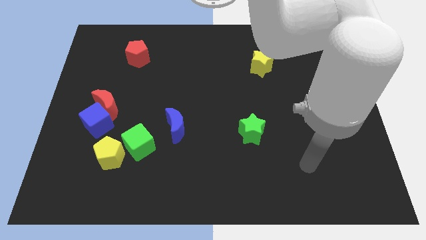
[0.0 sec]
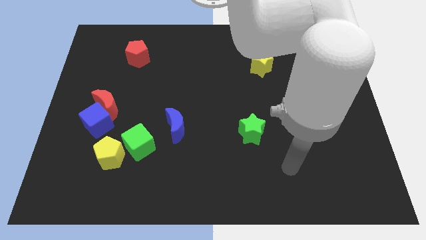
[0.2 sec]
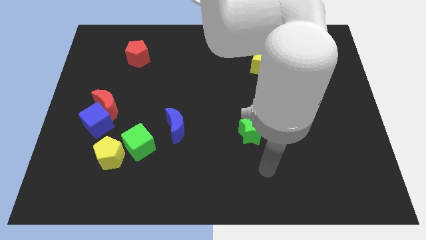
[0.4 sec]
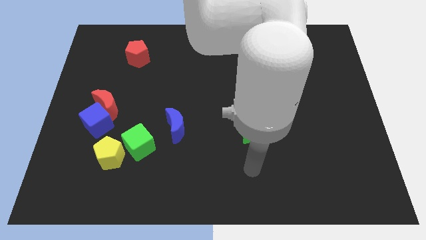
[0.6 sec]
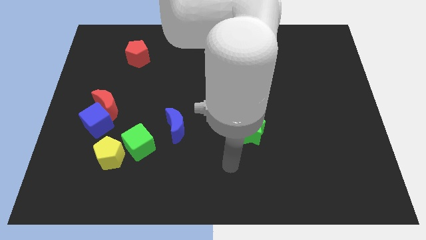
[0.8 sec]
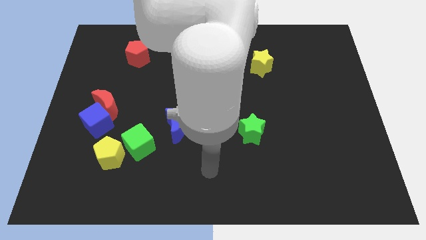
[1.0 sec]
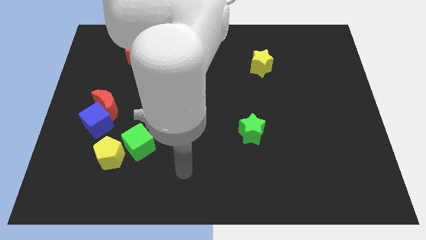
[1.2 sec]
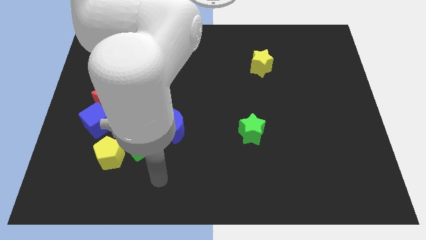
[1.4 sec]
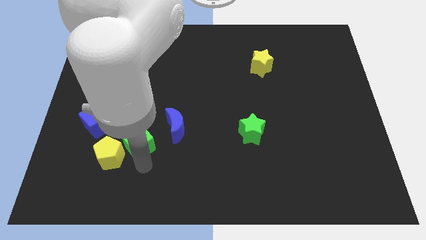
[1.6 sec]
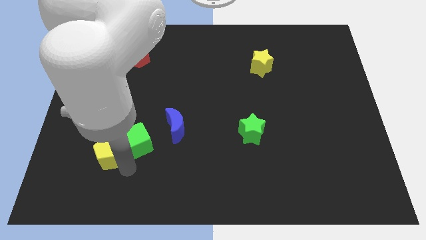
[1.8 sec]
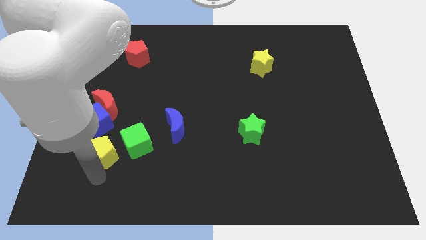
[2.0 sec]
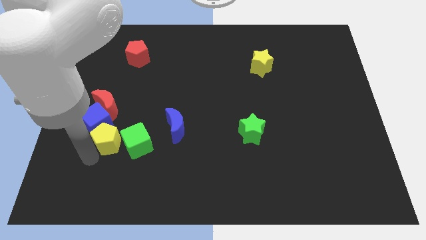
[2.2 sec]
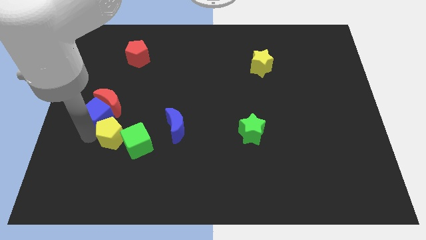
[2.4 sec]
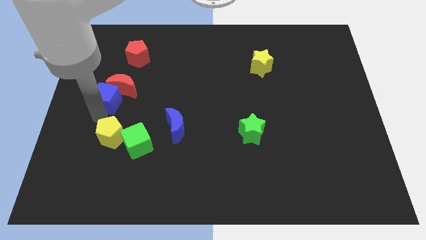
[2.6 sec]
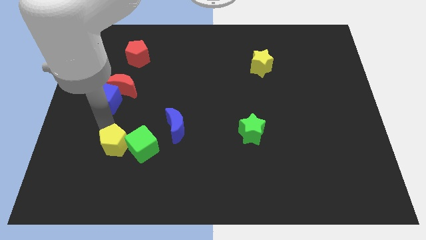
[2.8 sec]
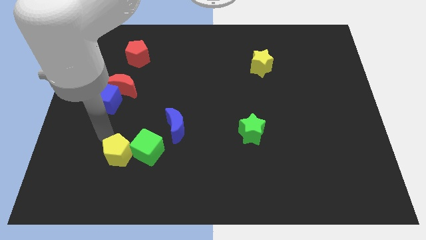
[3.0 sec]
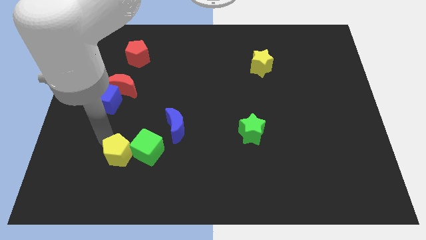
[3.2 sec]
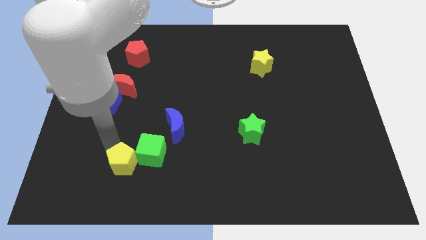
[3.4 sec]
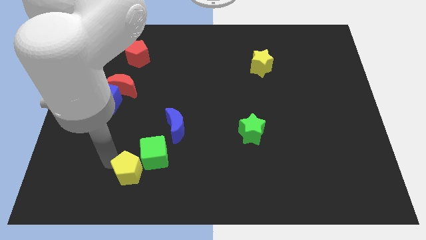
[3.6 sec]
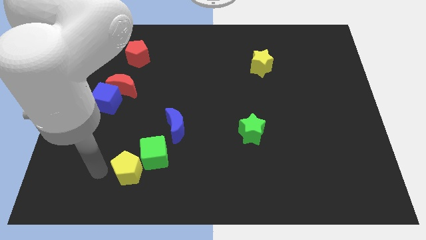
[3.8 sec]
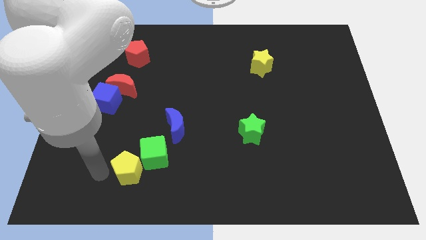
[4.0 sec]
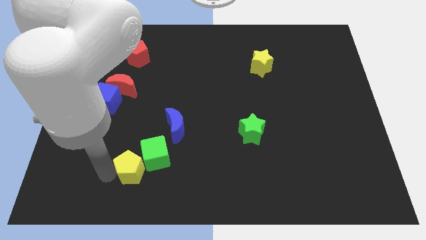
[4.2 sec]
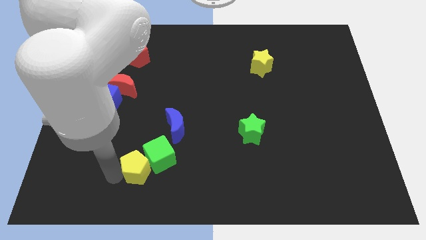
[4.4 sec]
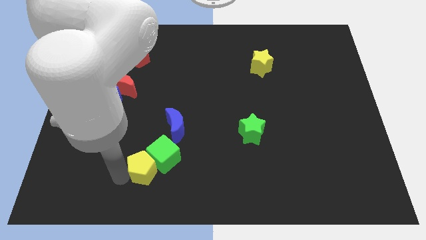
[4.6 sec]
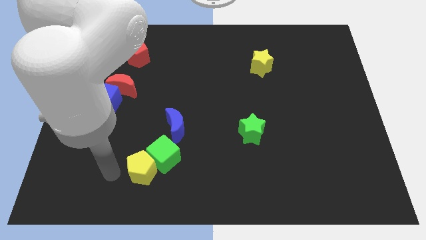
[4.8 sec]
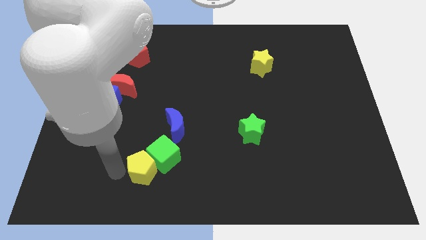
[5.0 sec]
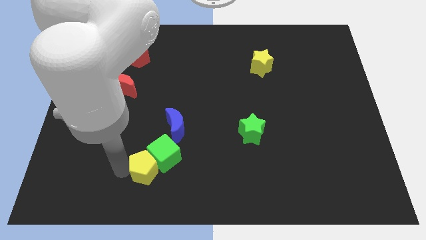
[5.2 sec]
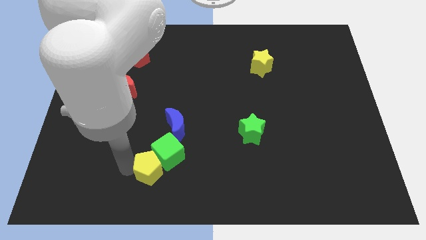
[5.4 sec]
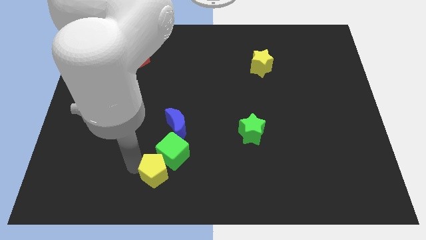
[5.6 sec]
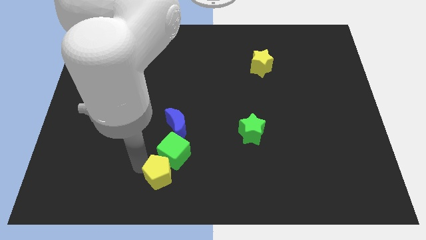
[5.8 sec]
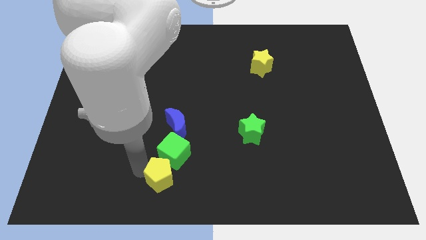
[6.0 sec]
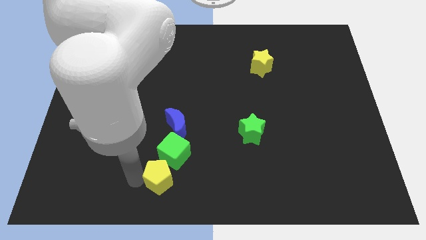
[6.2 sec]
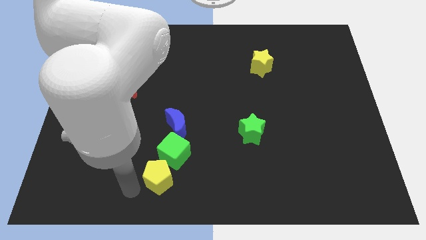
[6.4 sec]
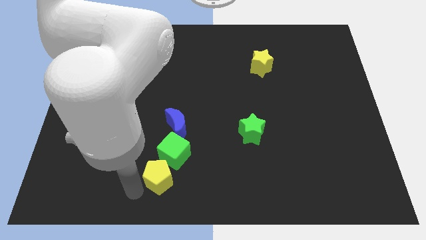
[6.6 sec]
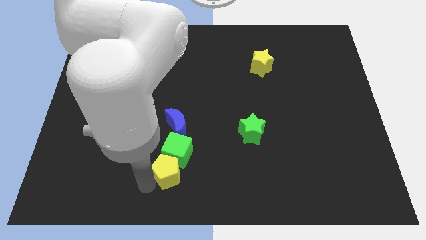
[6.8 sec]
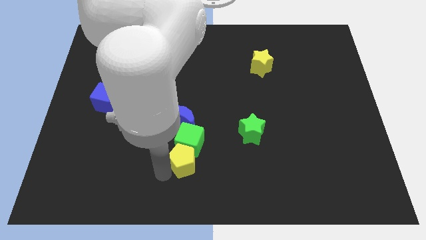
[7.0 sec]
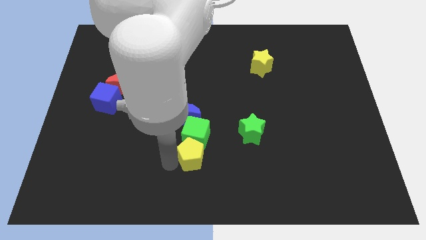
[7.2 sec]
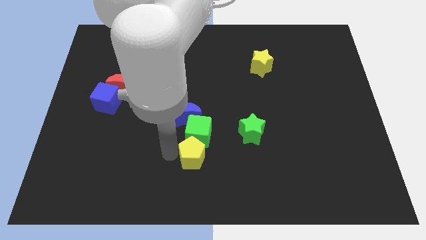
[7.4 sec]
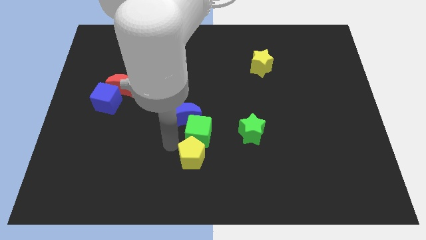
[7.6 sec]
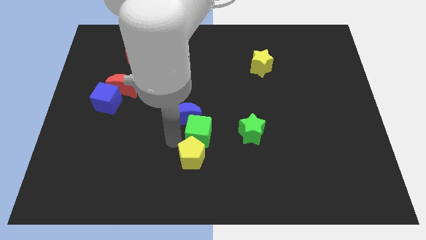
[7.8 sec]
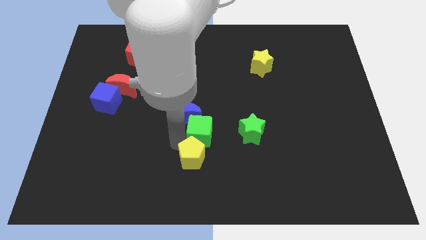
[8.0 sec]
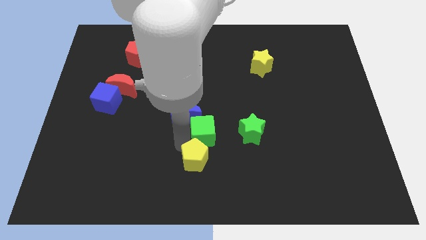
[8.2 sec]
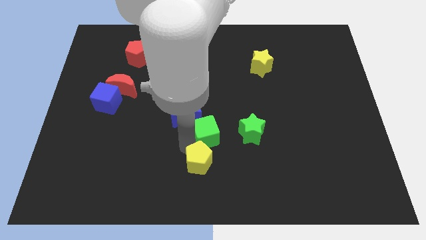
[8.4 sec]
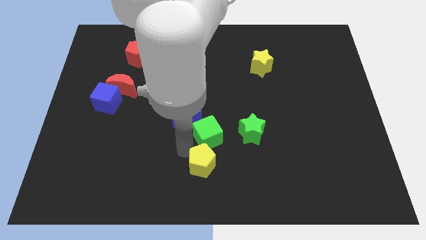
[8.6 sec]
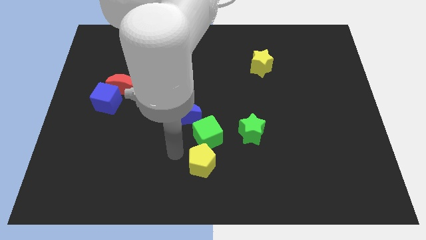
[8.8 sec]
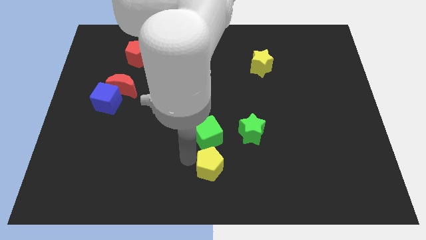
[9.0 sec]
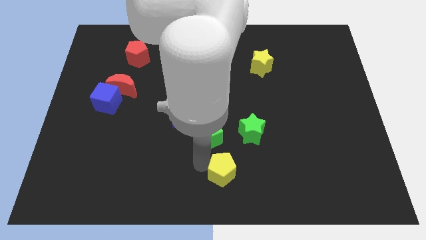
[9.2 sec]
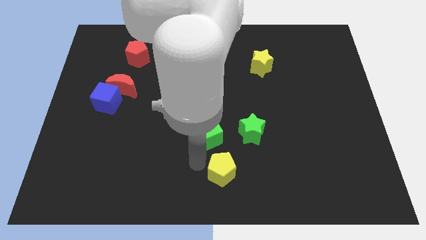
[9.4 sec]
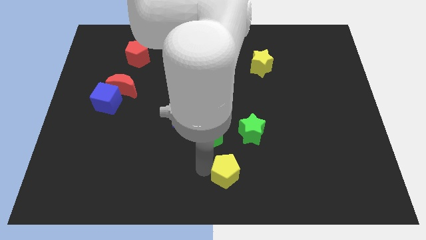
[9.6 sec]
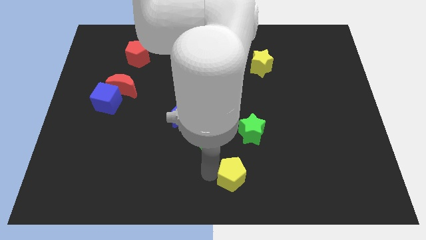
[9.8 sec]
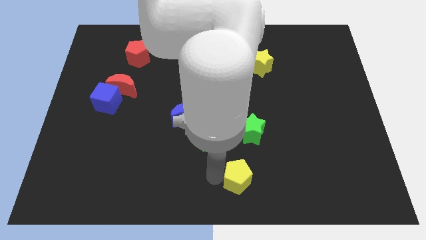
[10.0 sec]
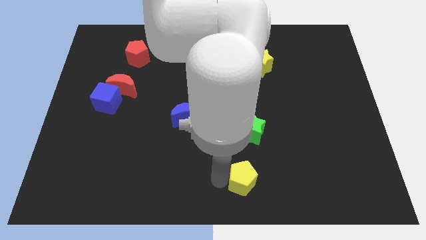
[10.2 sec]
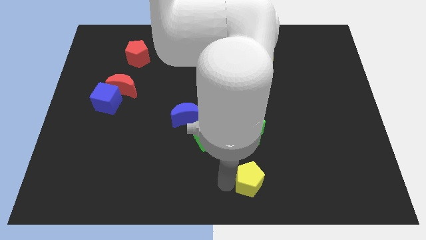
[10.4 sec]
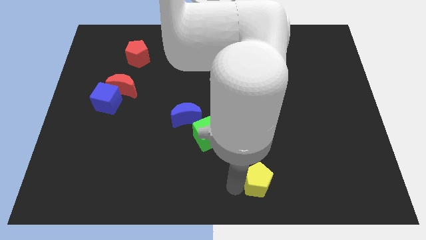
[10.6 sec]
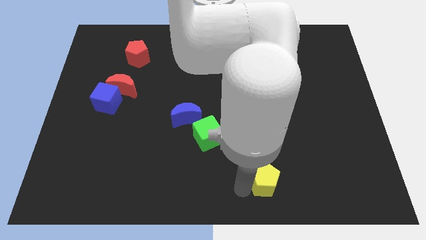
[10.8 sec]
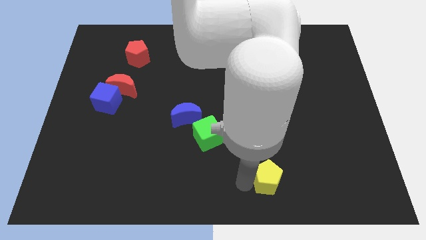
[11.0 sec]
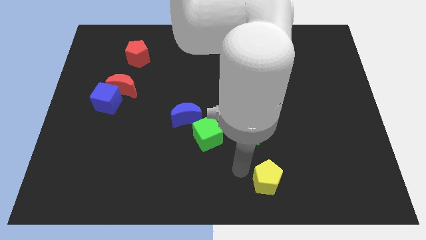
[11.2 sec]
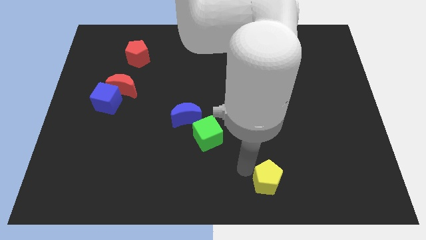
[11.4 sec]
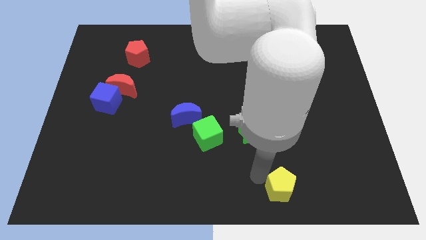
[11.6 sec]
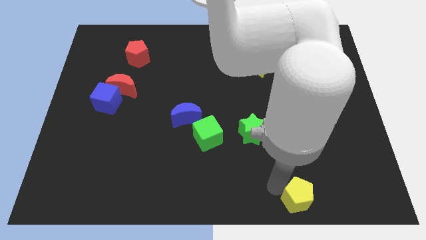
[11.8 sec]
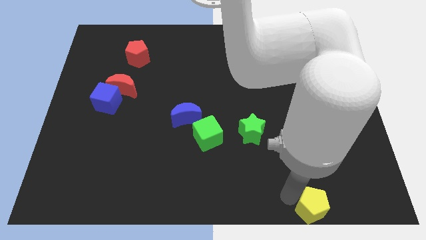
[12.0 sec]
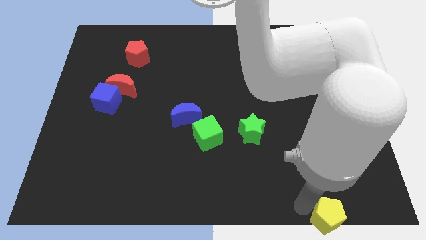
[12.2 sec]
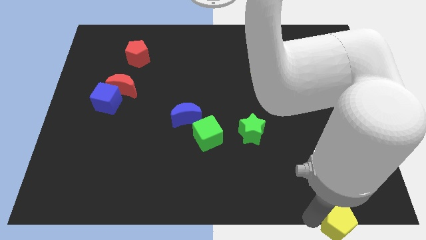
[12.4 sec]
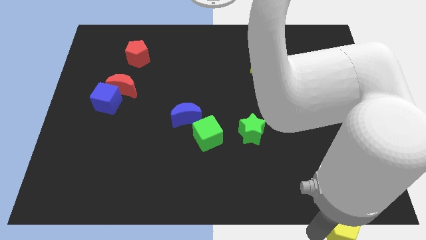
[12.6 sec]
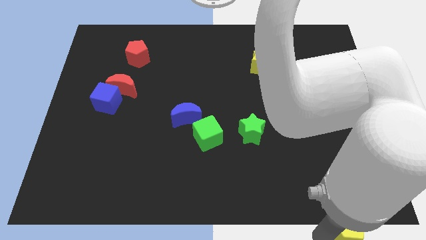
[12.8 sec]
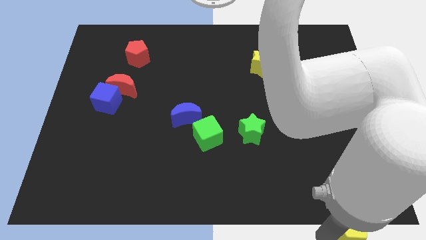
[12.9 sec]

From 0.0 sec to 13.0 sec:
slide the yellow pentagon to the bottom right of the board

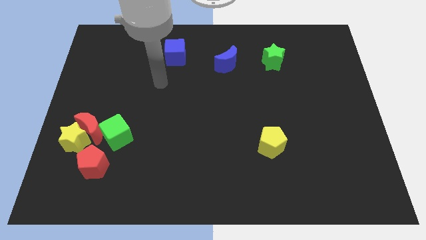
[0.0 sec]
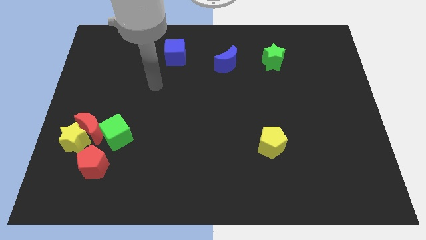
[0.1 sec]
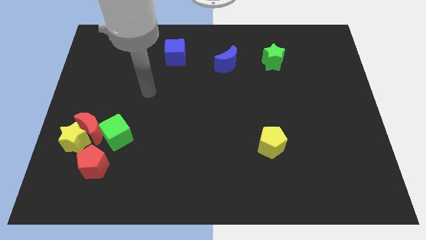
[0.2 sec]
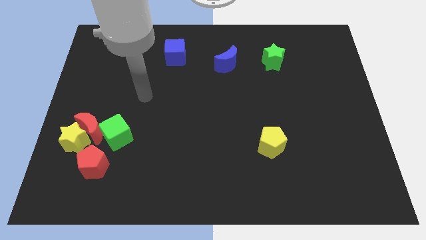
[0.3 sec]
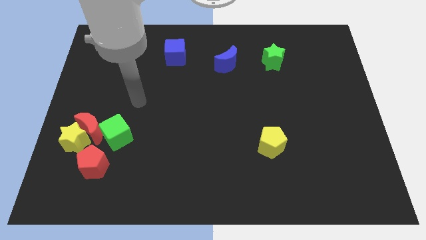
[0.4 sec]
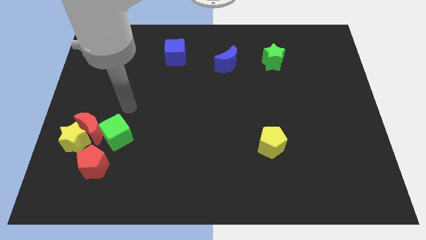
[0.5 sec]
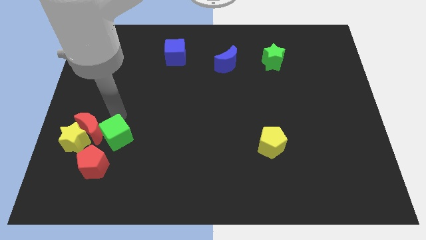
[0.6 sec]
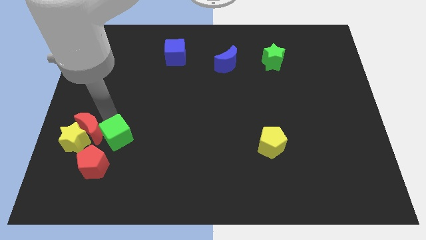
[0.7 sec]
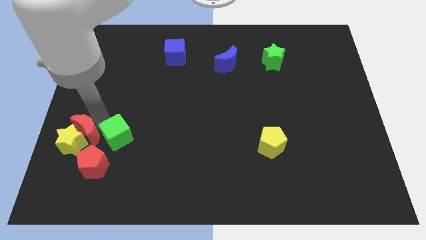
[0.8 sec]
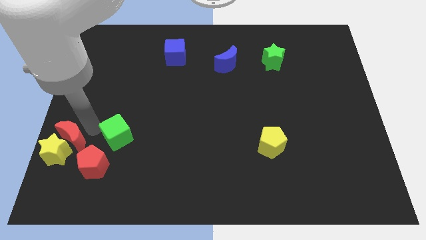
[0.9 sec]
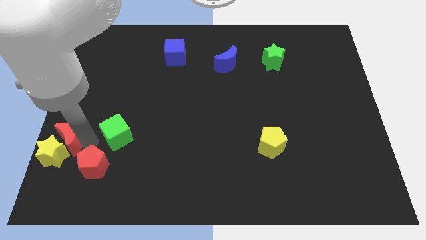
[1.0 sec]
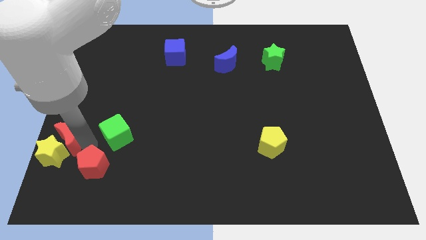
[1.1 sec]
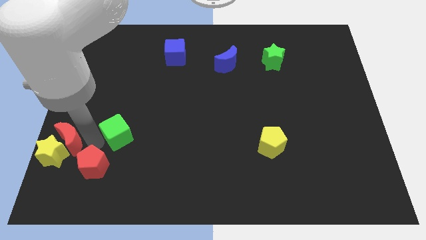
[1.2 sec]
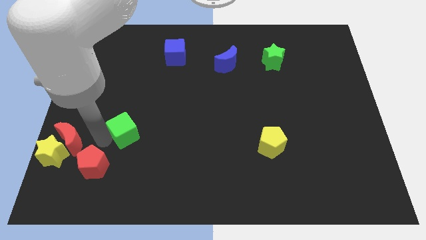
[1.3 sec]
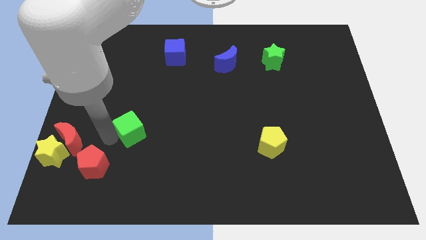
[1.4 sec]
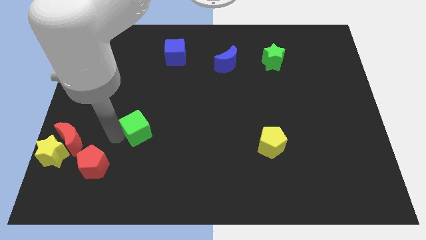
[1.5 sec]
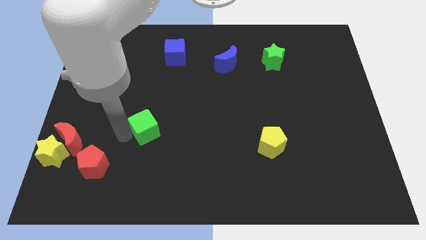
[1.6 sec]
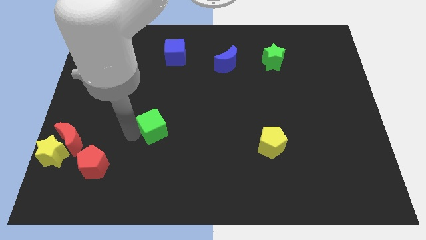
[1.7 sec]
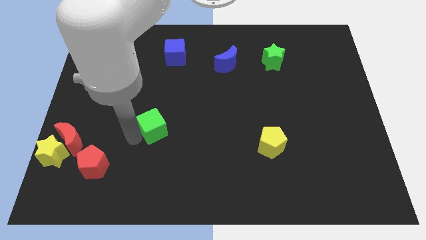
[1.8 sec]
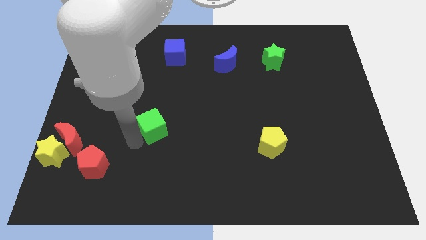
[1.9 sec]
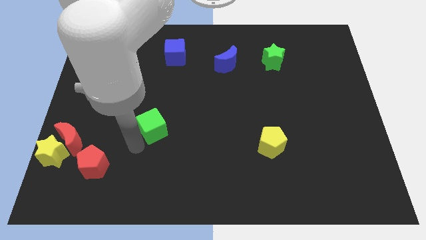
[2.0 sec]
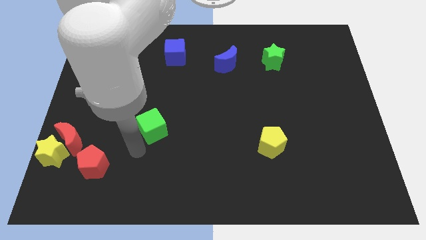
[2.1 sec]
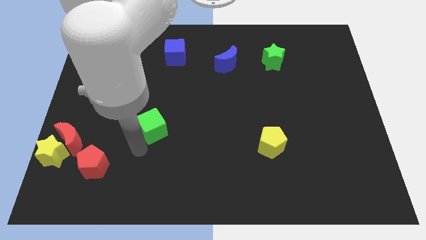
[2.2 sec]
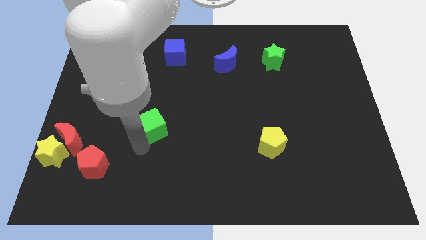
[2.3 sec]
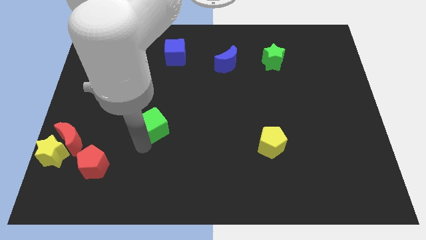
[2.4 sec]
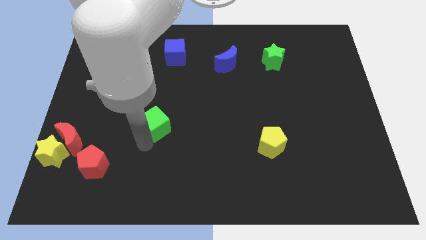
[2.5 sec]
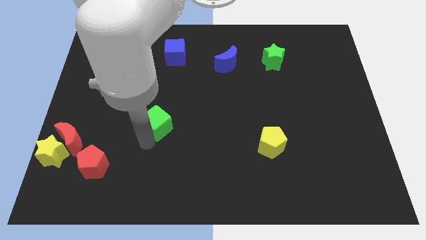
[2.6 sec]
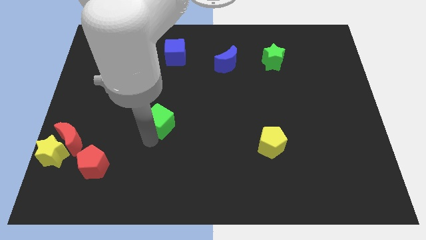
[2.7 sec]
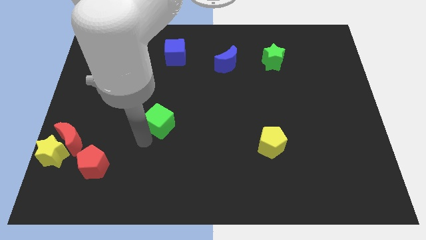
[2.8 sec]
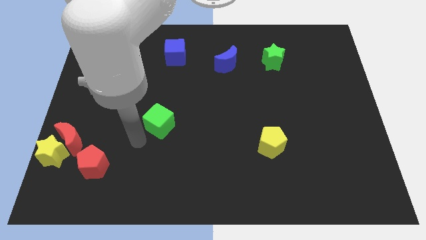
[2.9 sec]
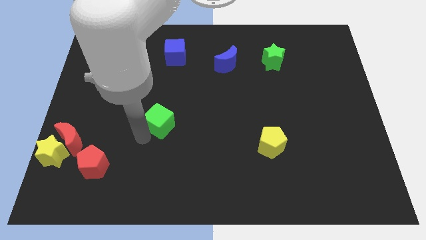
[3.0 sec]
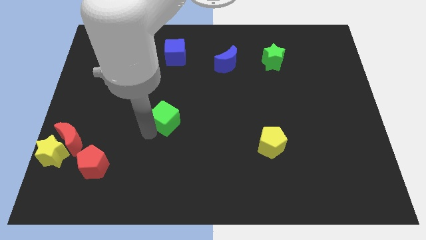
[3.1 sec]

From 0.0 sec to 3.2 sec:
put the green cube to the middle
